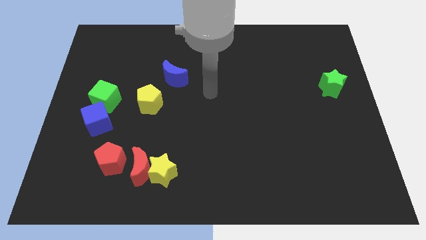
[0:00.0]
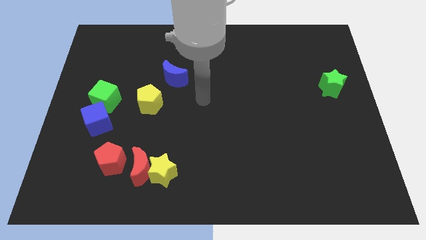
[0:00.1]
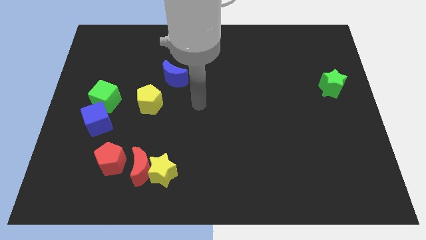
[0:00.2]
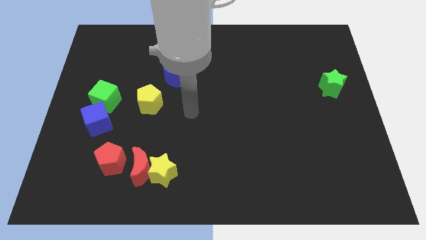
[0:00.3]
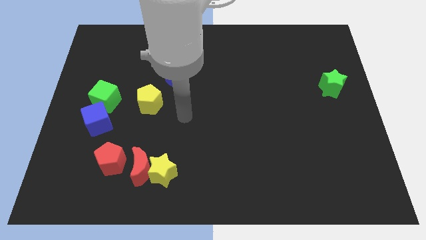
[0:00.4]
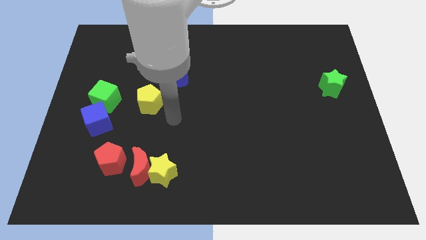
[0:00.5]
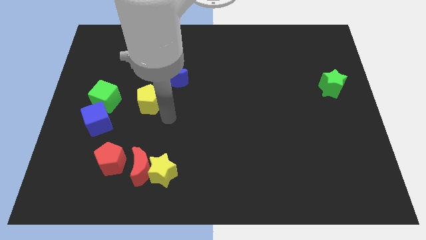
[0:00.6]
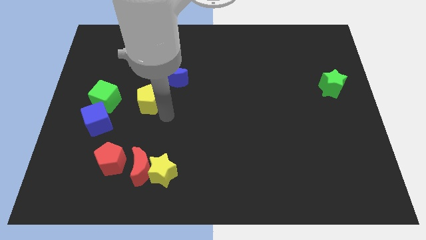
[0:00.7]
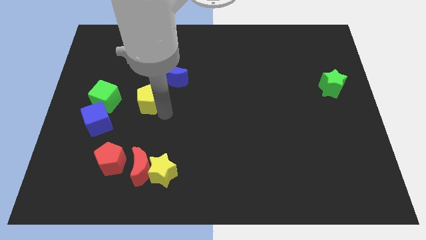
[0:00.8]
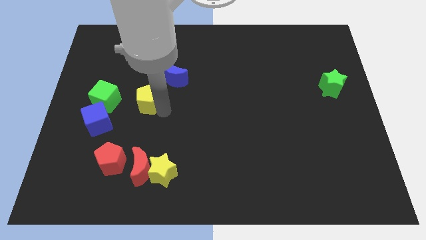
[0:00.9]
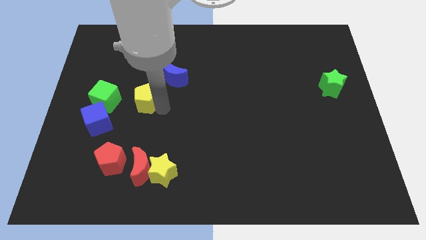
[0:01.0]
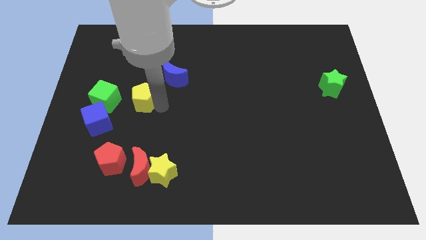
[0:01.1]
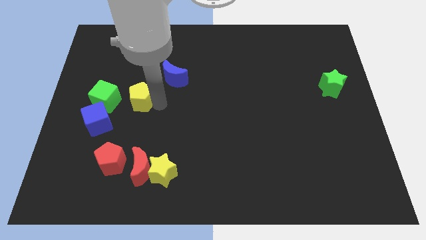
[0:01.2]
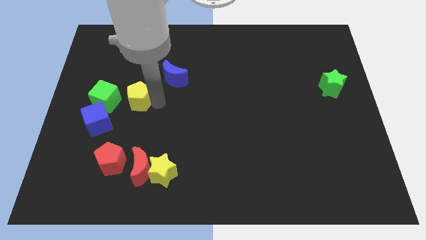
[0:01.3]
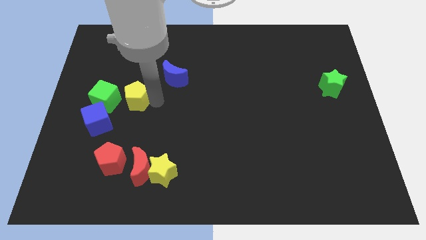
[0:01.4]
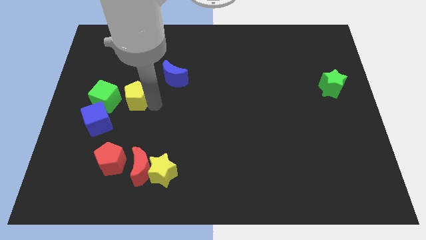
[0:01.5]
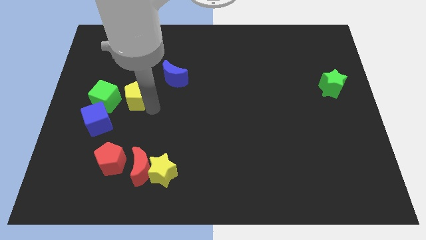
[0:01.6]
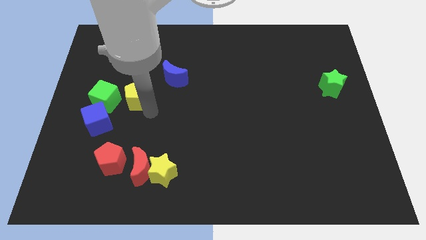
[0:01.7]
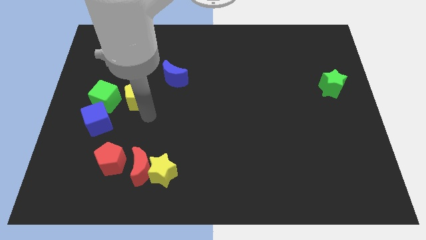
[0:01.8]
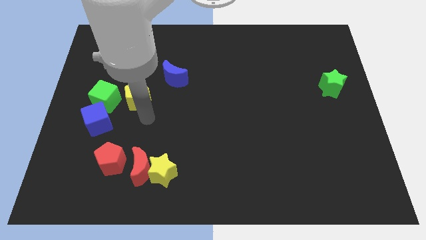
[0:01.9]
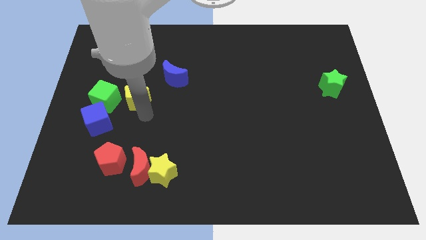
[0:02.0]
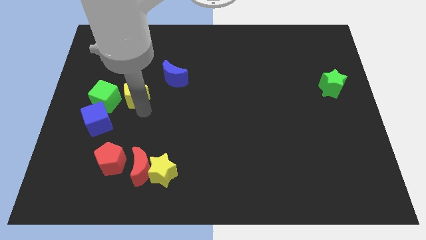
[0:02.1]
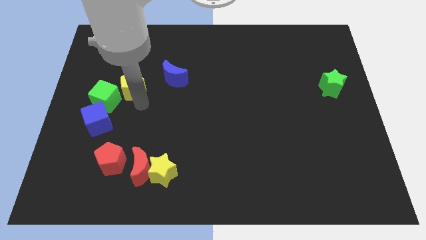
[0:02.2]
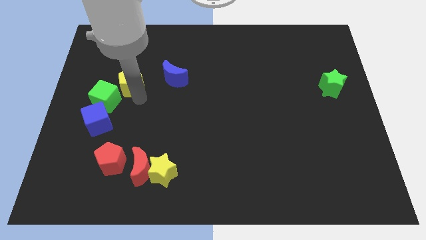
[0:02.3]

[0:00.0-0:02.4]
slightly push the yellow pentagon up and left

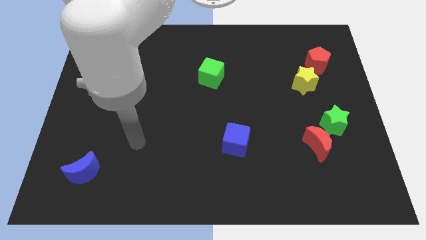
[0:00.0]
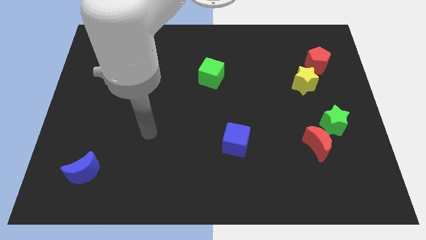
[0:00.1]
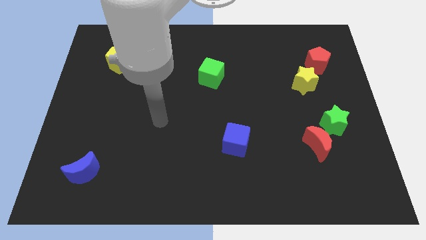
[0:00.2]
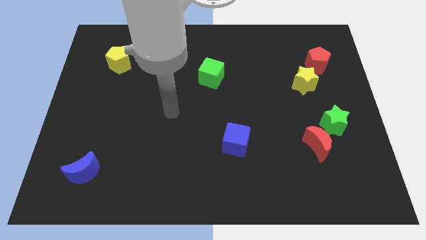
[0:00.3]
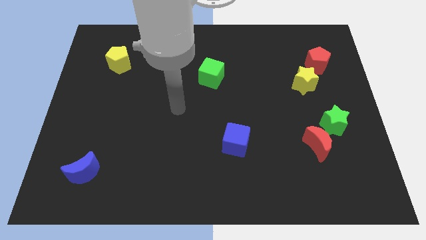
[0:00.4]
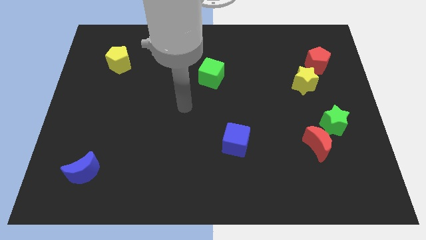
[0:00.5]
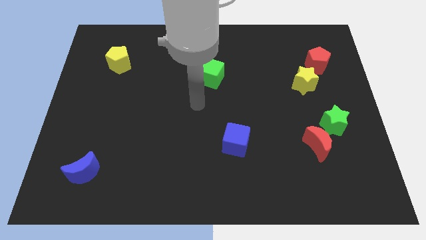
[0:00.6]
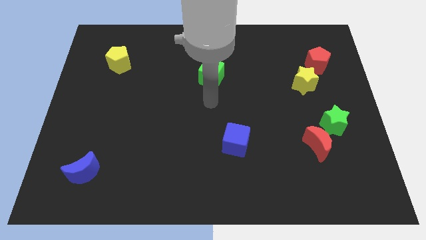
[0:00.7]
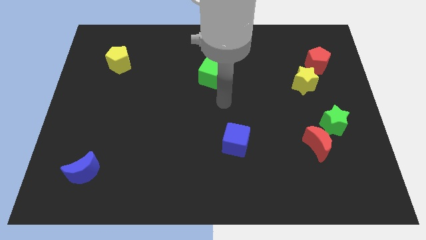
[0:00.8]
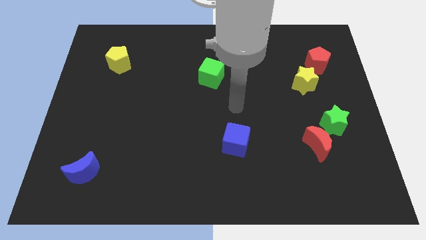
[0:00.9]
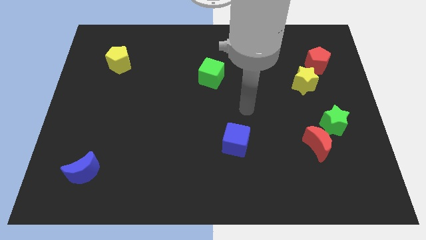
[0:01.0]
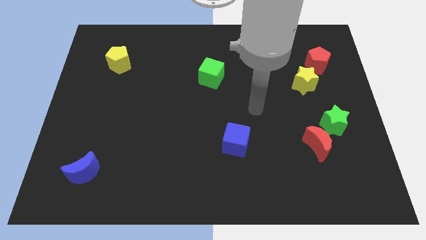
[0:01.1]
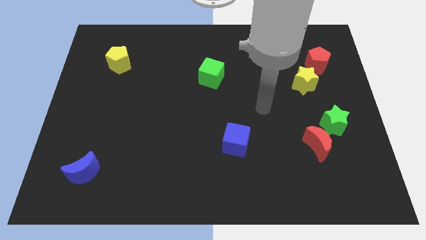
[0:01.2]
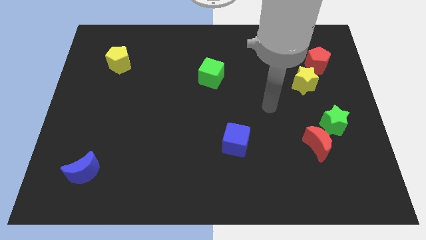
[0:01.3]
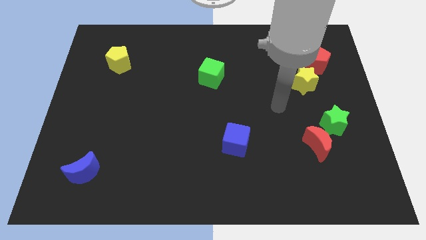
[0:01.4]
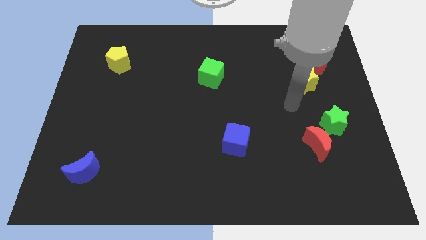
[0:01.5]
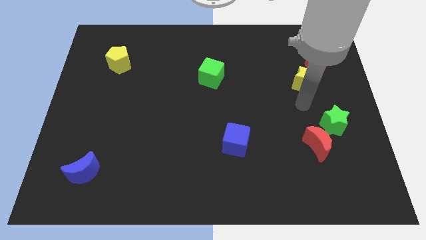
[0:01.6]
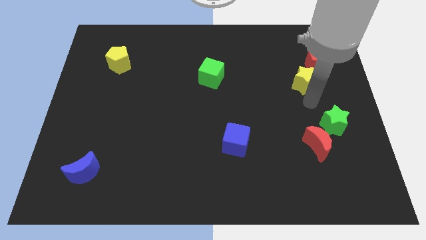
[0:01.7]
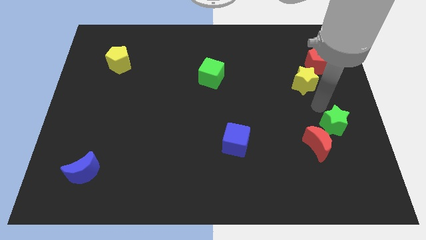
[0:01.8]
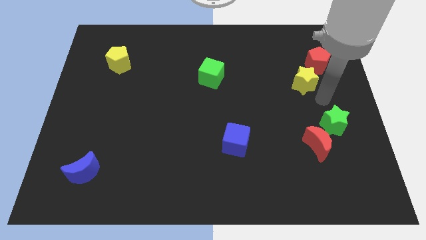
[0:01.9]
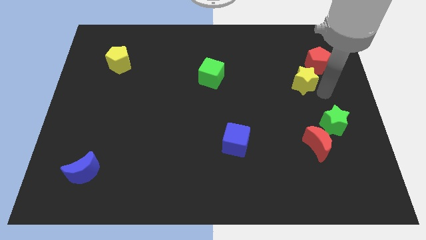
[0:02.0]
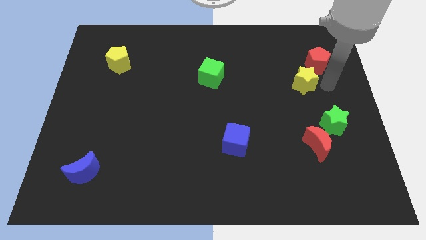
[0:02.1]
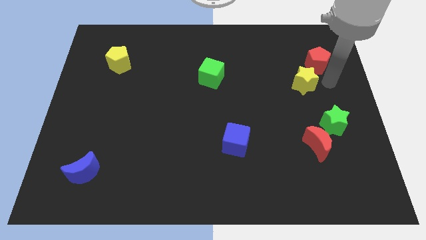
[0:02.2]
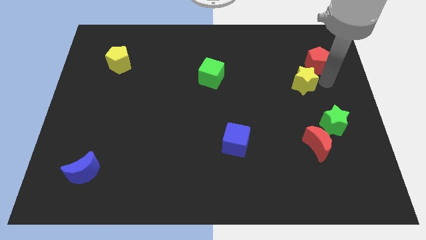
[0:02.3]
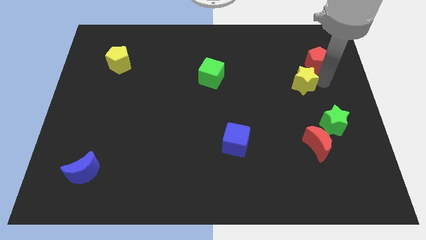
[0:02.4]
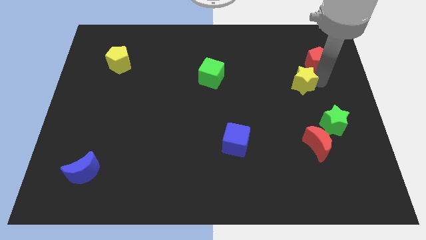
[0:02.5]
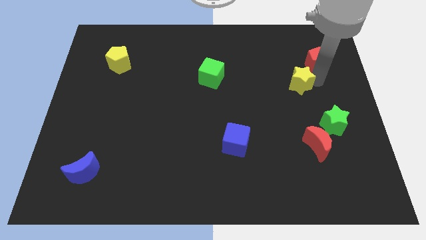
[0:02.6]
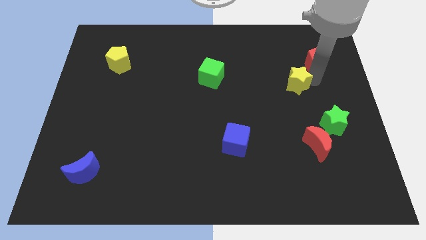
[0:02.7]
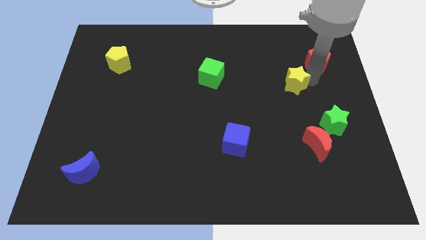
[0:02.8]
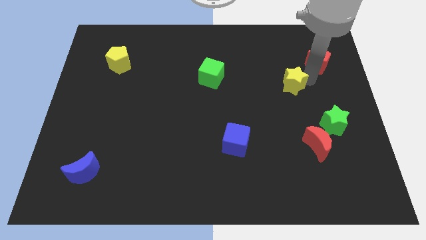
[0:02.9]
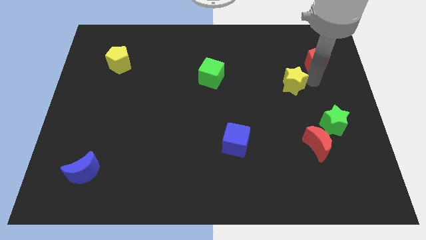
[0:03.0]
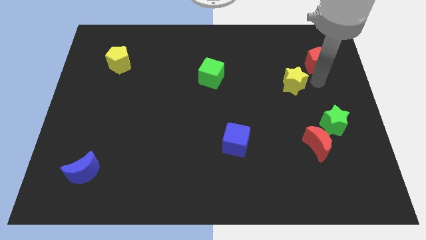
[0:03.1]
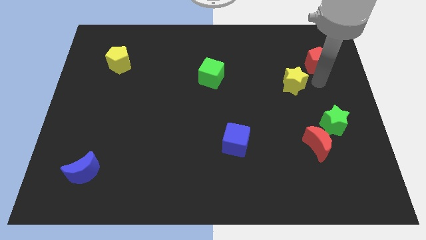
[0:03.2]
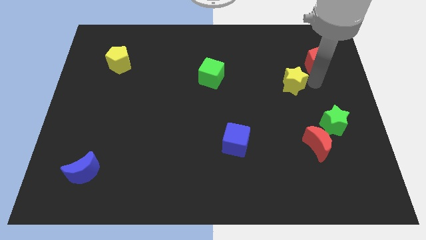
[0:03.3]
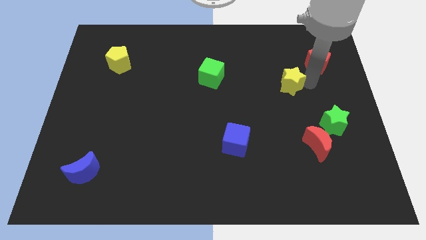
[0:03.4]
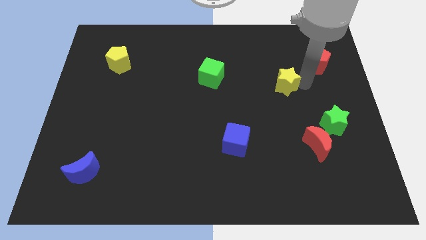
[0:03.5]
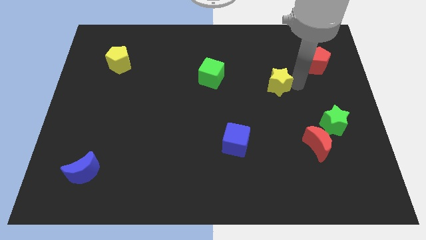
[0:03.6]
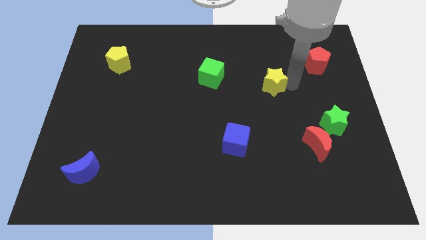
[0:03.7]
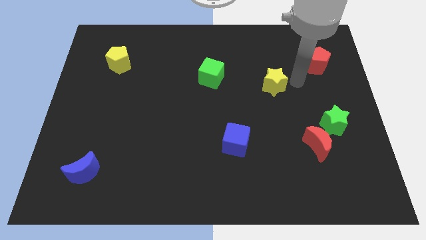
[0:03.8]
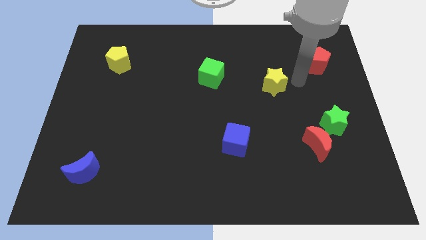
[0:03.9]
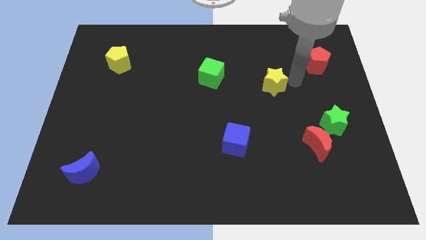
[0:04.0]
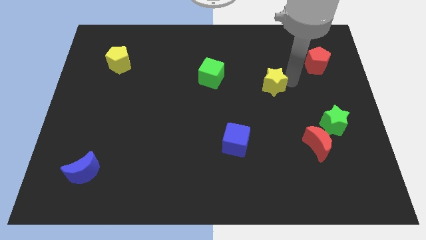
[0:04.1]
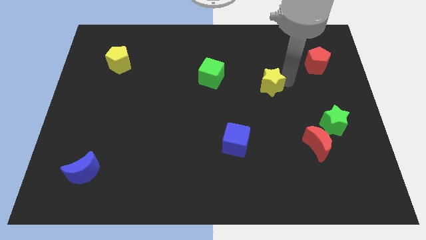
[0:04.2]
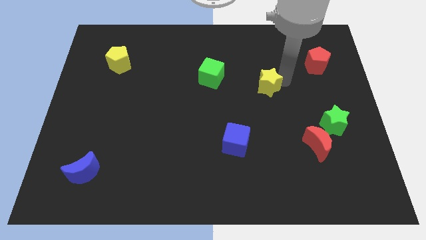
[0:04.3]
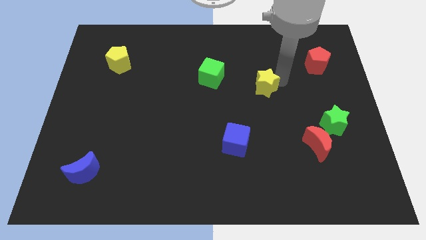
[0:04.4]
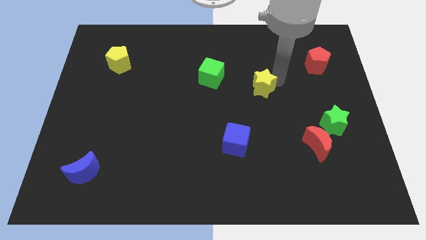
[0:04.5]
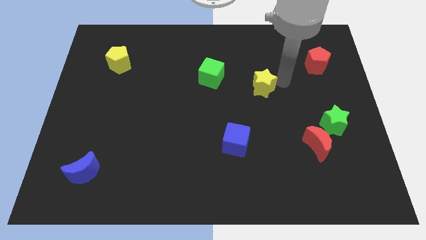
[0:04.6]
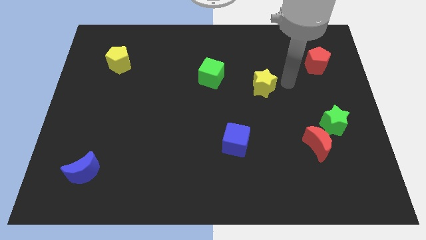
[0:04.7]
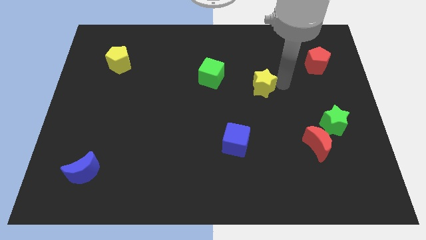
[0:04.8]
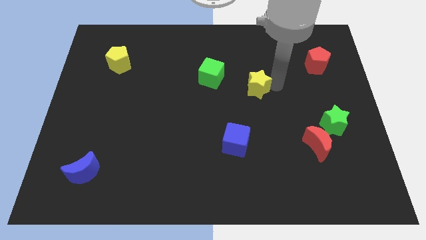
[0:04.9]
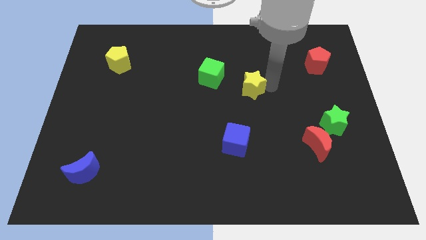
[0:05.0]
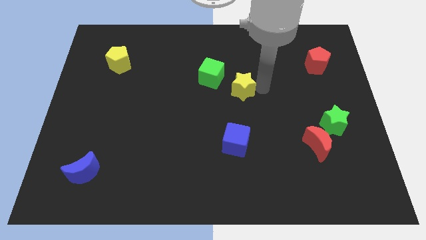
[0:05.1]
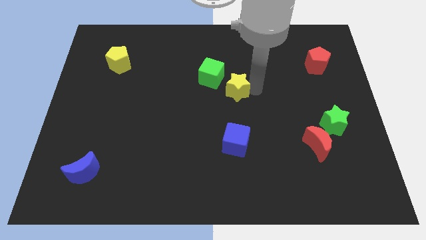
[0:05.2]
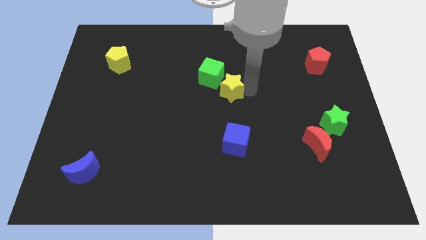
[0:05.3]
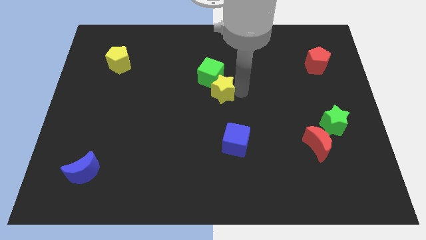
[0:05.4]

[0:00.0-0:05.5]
slide the yellow star to the left

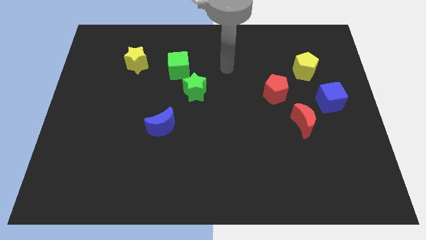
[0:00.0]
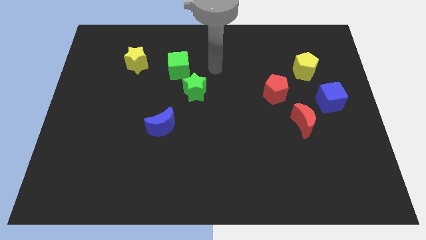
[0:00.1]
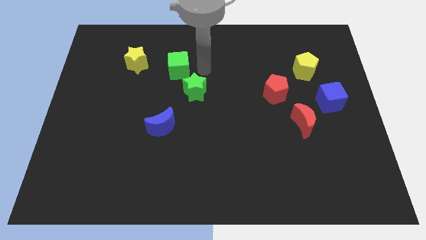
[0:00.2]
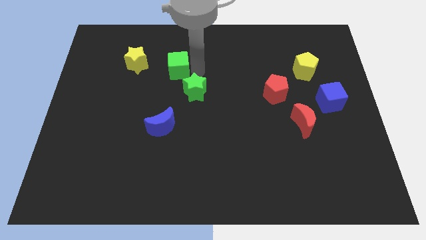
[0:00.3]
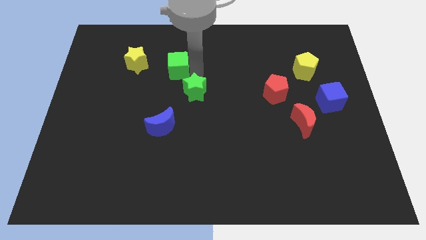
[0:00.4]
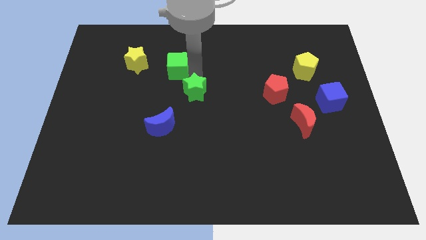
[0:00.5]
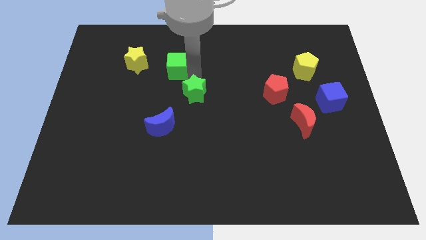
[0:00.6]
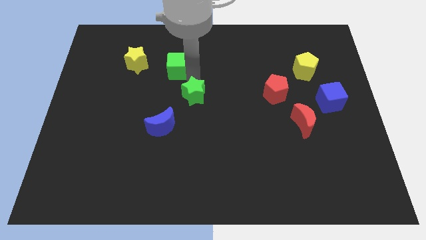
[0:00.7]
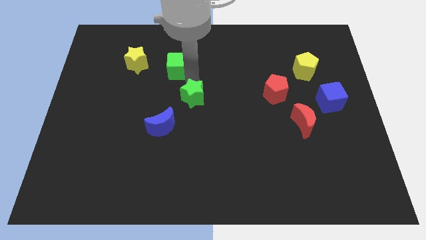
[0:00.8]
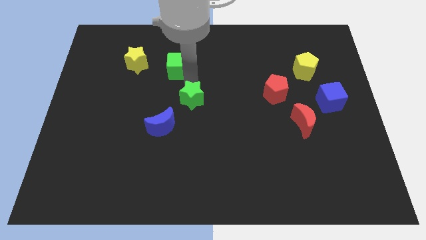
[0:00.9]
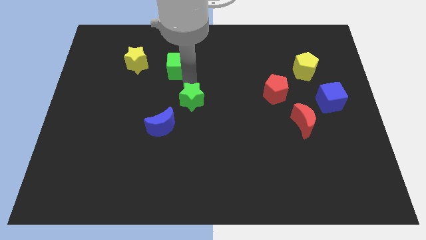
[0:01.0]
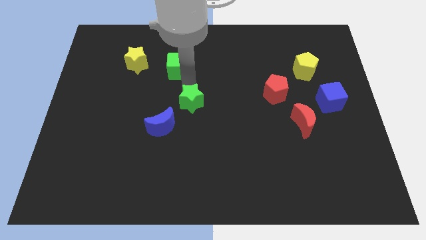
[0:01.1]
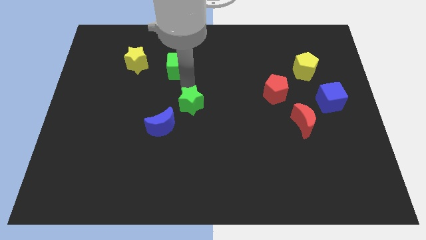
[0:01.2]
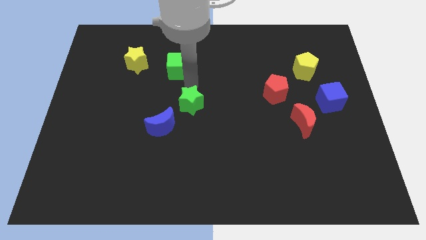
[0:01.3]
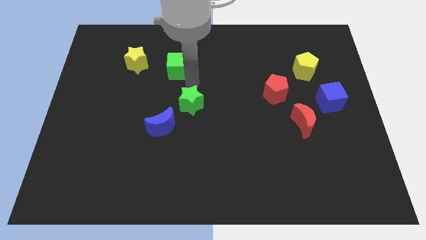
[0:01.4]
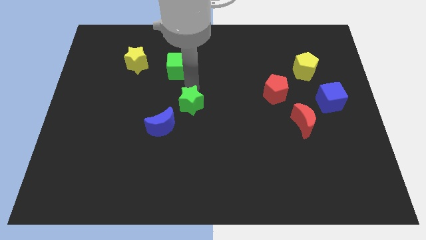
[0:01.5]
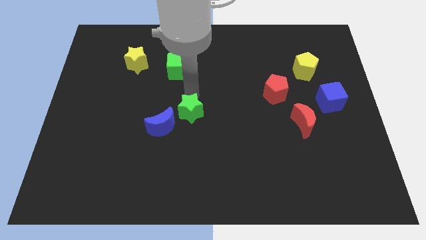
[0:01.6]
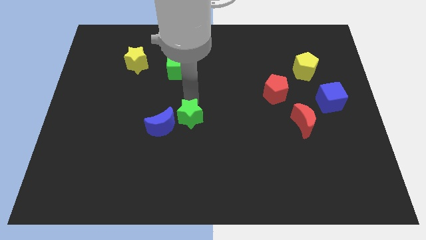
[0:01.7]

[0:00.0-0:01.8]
slightly move the green star down
